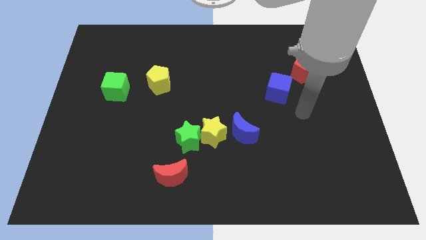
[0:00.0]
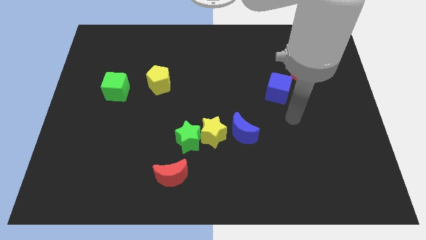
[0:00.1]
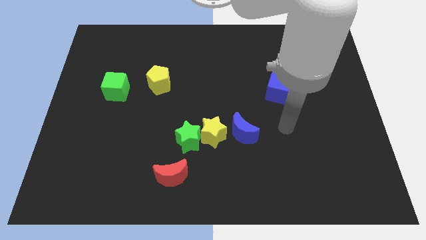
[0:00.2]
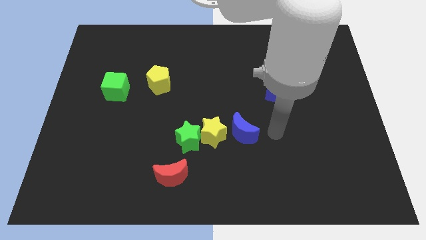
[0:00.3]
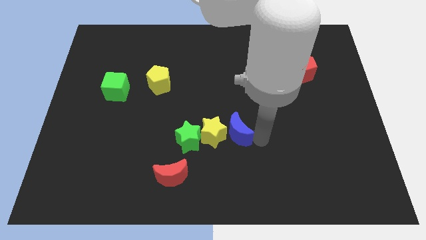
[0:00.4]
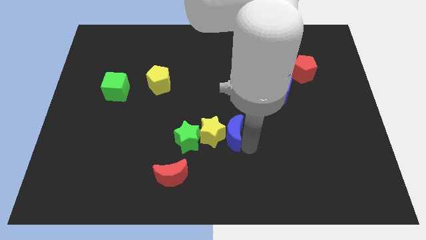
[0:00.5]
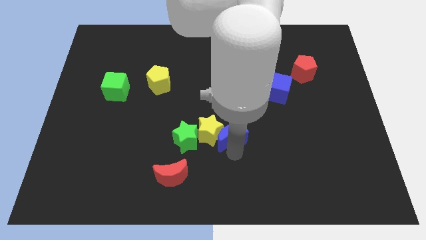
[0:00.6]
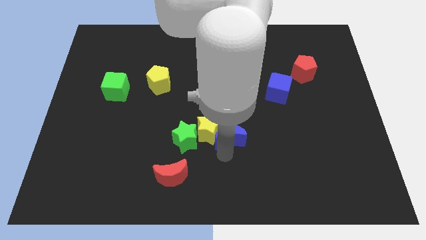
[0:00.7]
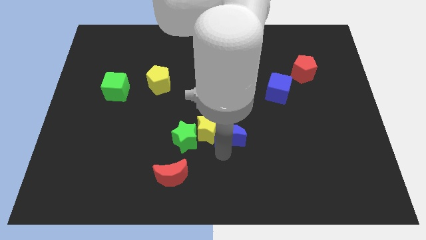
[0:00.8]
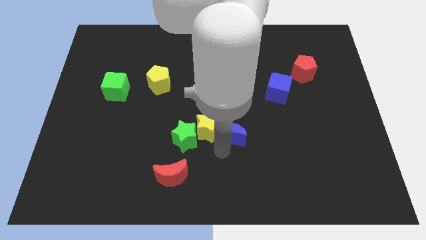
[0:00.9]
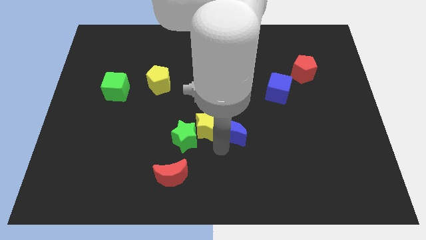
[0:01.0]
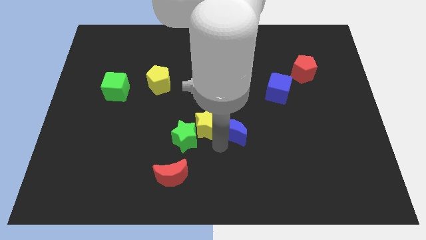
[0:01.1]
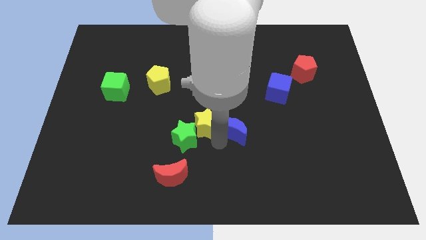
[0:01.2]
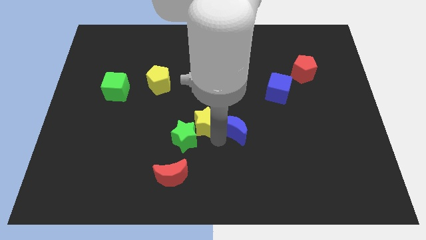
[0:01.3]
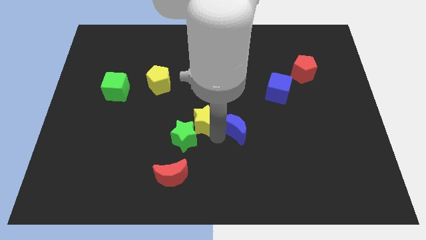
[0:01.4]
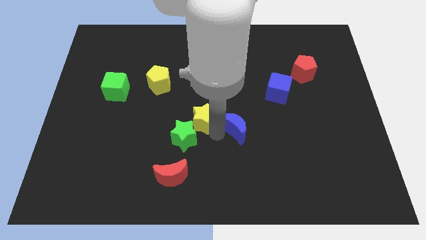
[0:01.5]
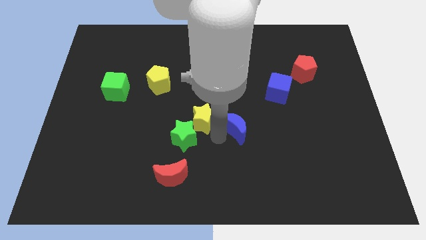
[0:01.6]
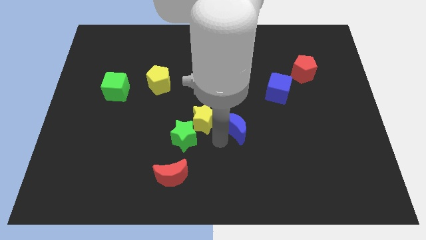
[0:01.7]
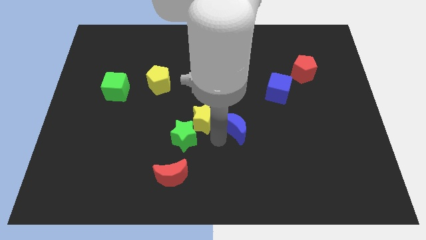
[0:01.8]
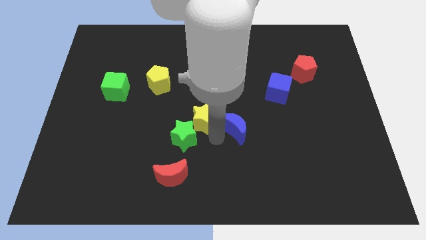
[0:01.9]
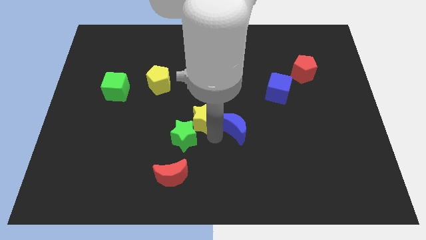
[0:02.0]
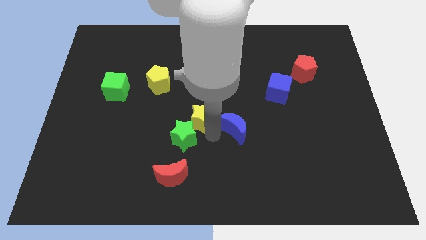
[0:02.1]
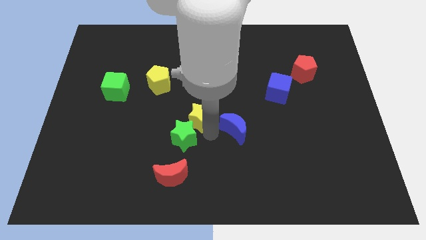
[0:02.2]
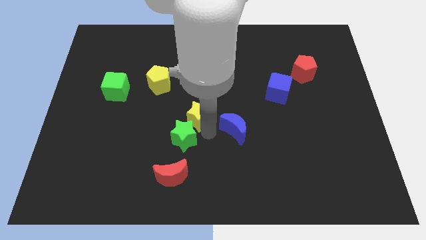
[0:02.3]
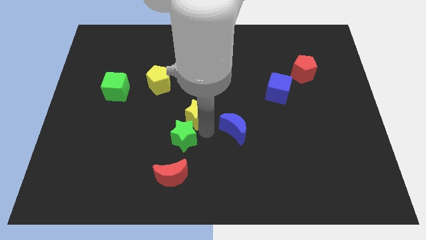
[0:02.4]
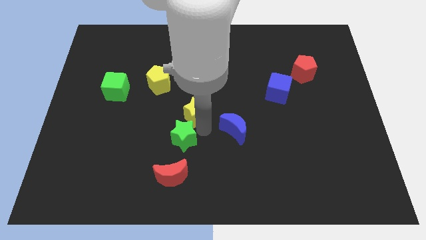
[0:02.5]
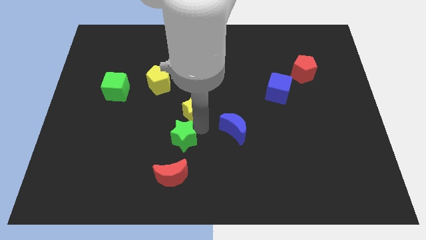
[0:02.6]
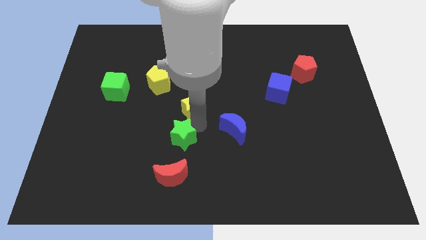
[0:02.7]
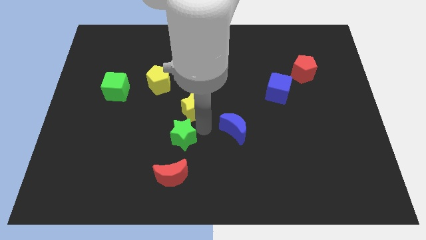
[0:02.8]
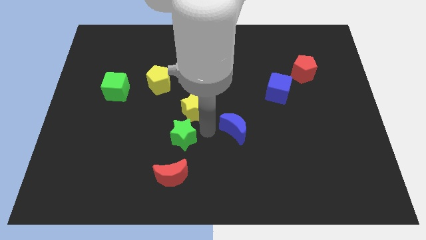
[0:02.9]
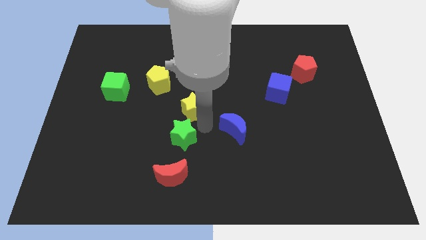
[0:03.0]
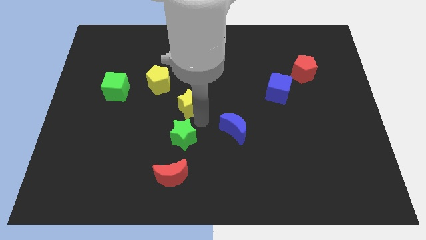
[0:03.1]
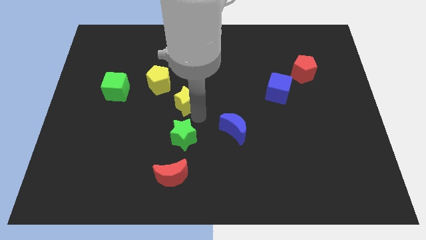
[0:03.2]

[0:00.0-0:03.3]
separate the yellow star from the green star and blue moon

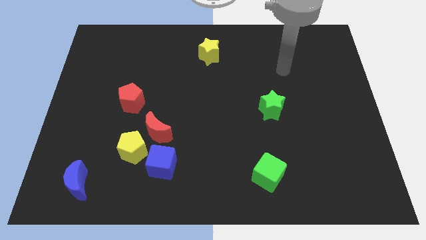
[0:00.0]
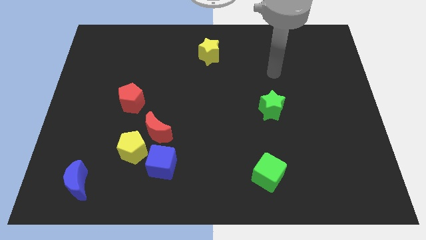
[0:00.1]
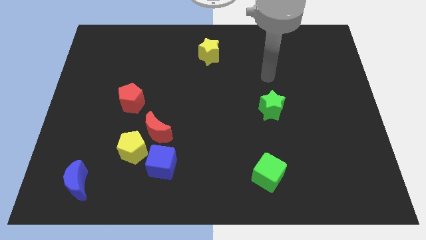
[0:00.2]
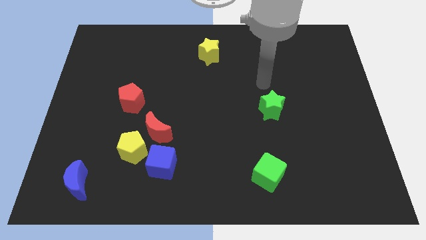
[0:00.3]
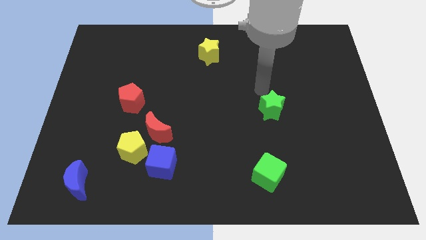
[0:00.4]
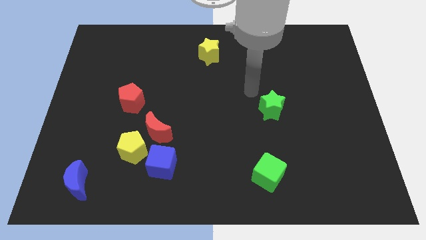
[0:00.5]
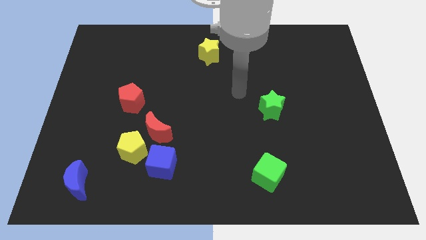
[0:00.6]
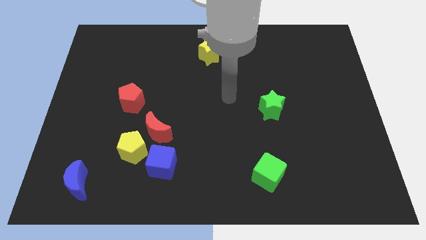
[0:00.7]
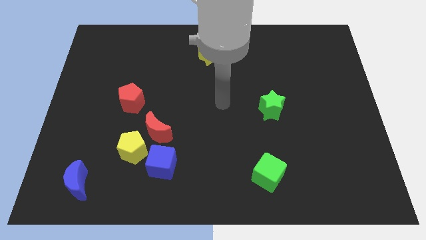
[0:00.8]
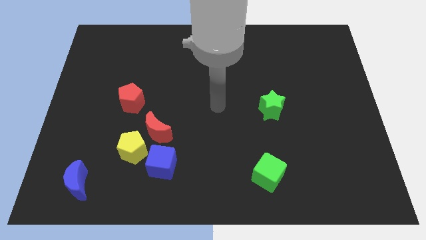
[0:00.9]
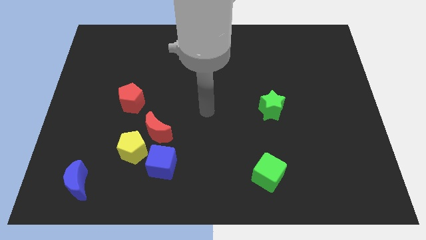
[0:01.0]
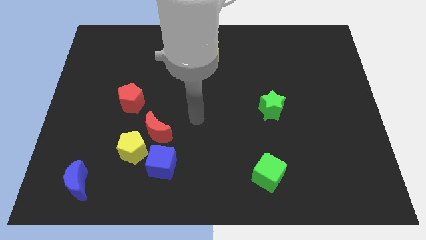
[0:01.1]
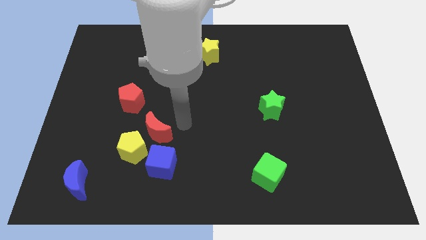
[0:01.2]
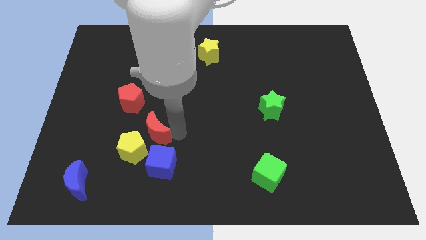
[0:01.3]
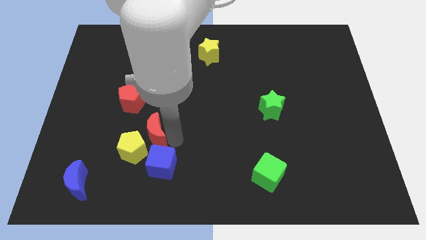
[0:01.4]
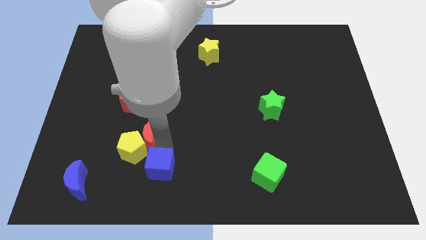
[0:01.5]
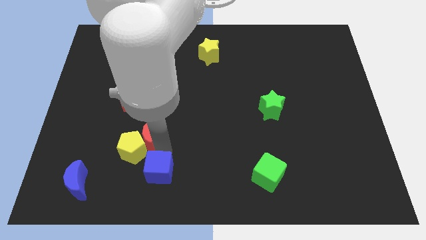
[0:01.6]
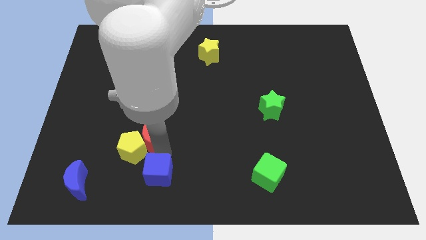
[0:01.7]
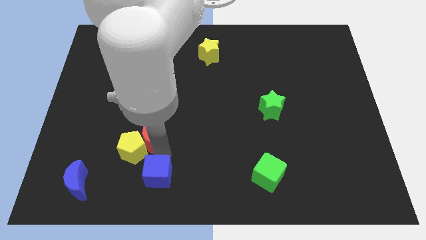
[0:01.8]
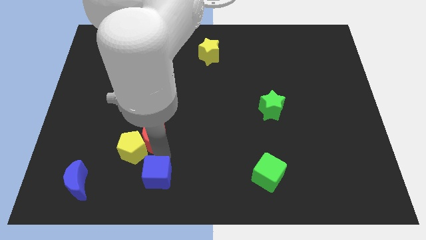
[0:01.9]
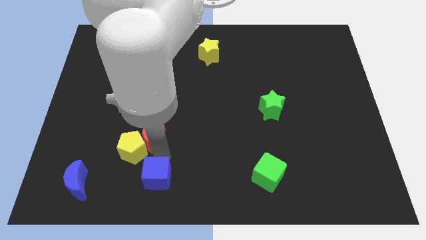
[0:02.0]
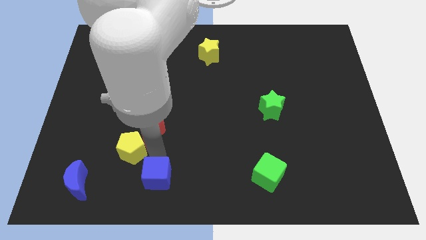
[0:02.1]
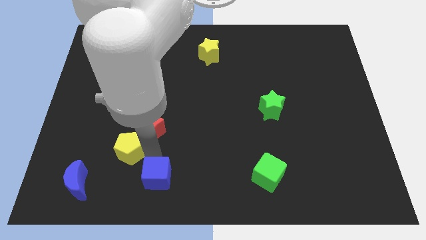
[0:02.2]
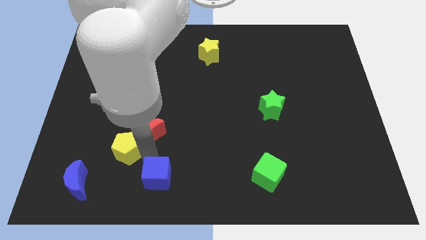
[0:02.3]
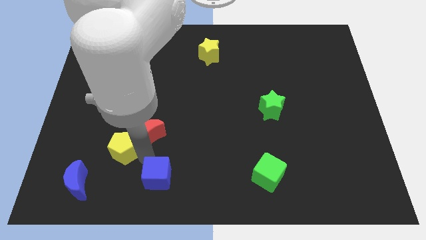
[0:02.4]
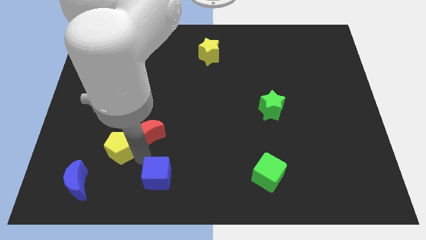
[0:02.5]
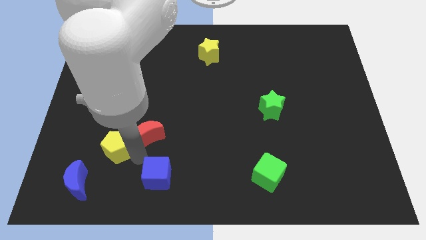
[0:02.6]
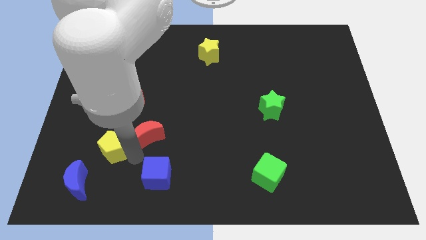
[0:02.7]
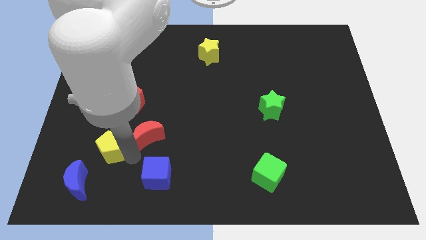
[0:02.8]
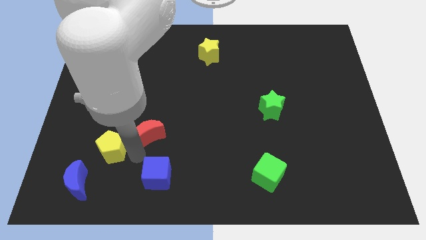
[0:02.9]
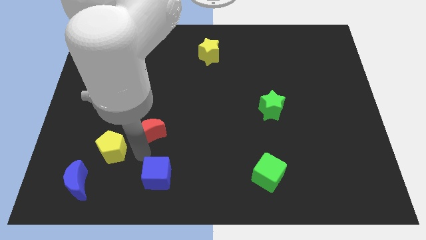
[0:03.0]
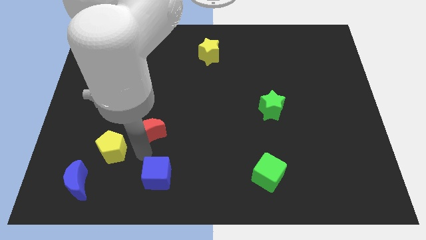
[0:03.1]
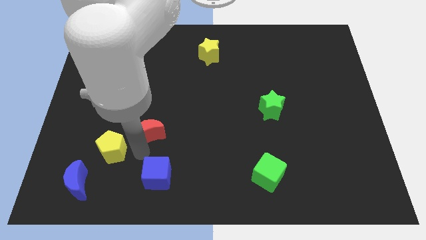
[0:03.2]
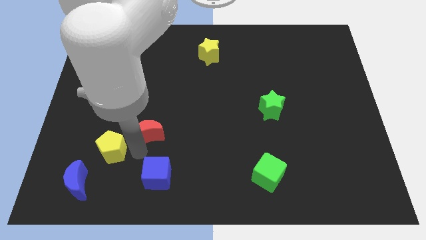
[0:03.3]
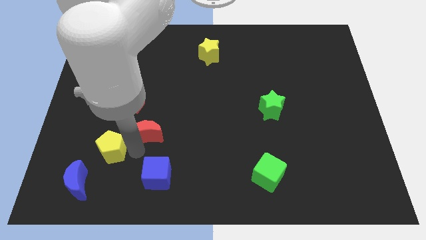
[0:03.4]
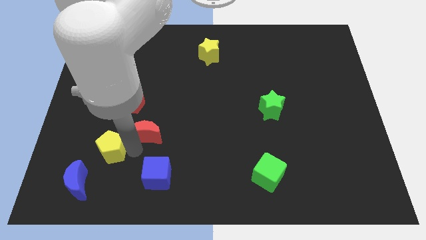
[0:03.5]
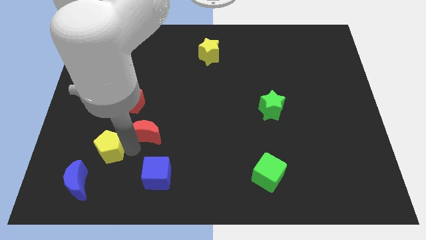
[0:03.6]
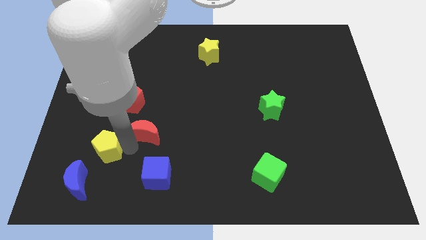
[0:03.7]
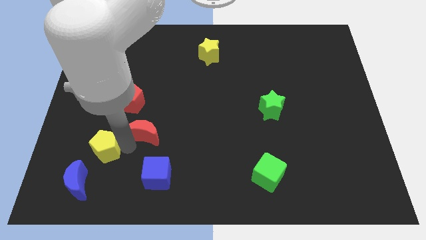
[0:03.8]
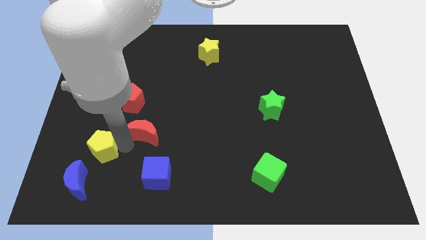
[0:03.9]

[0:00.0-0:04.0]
move the yellow pentagon away from the red moon and blue cube

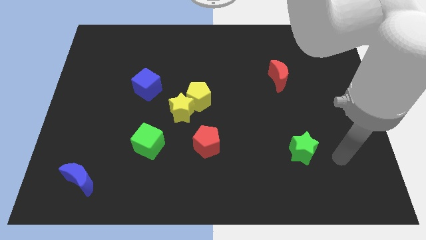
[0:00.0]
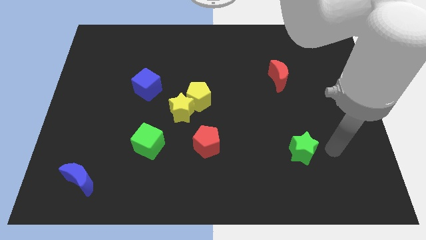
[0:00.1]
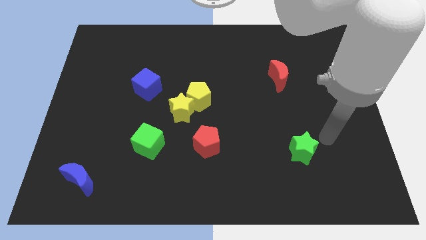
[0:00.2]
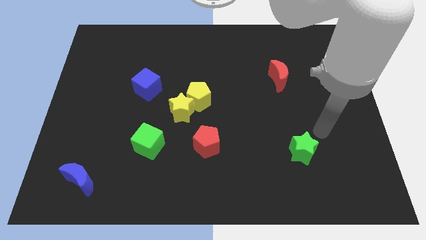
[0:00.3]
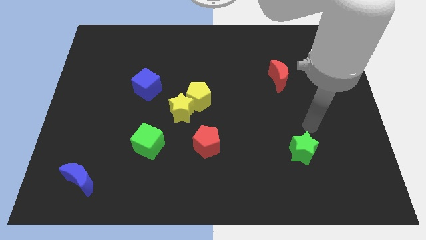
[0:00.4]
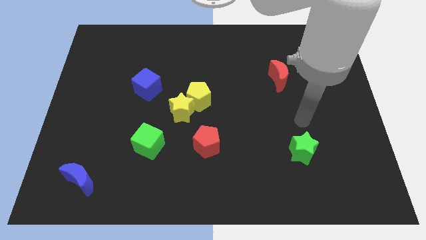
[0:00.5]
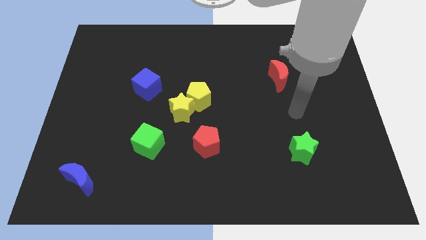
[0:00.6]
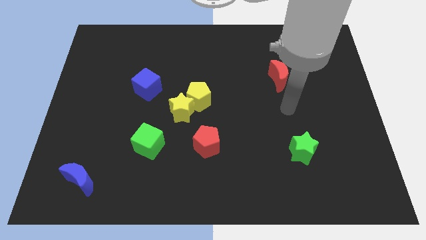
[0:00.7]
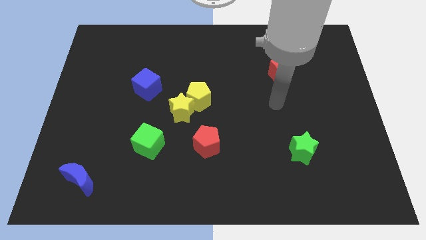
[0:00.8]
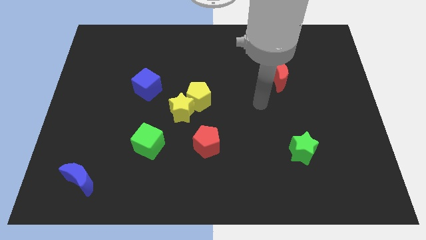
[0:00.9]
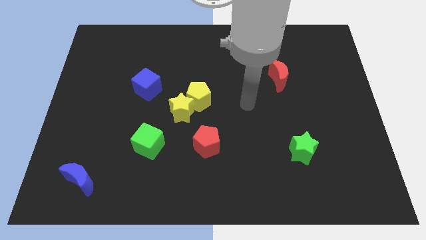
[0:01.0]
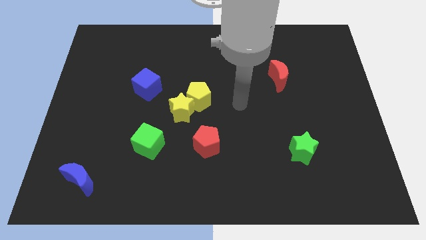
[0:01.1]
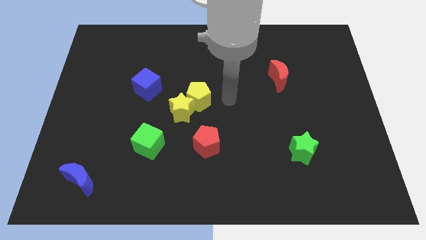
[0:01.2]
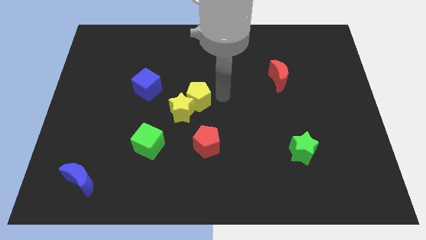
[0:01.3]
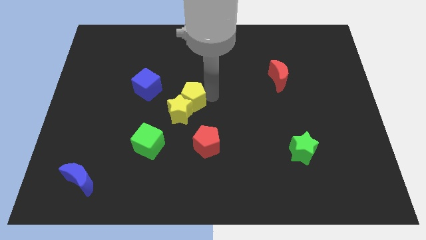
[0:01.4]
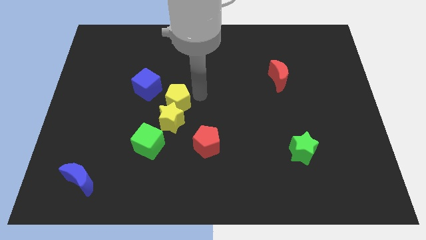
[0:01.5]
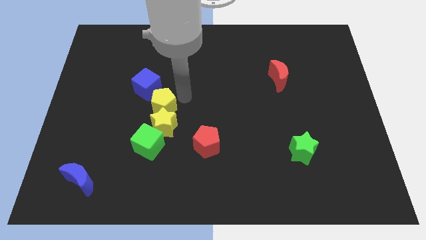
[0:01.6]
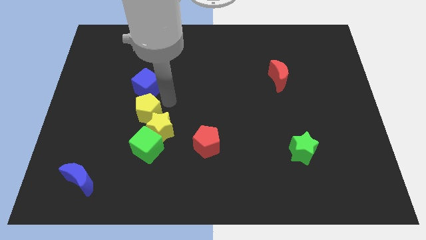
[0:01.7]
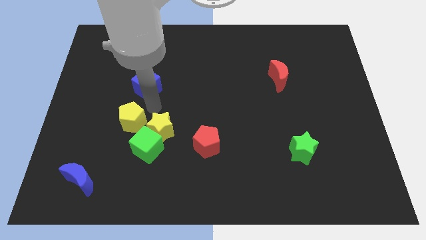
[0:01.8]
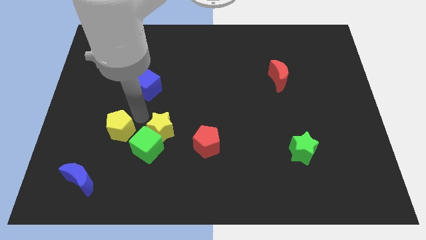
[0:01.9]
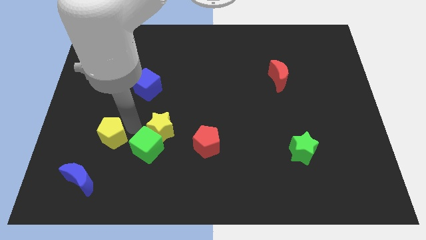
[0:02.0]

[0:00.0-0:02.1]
move the yellow star away from the yellow pentagon
